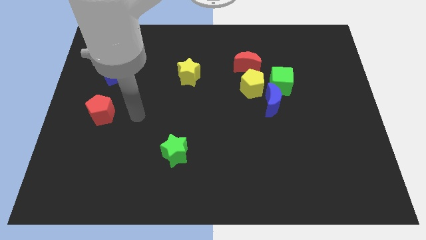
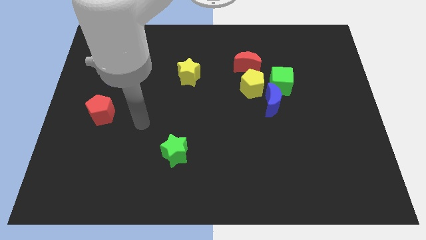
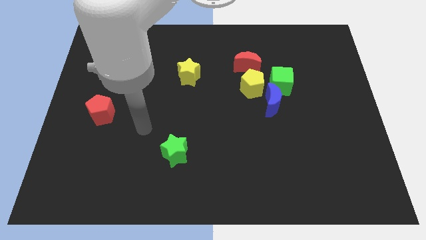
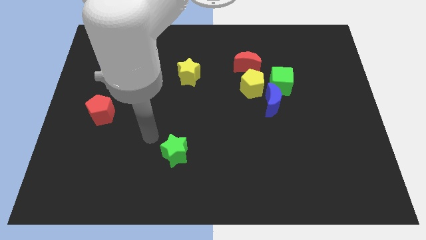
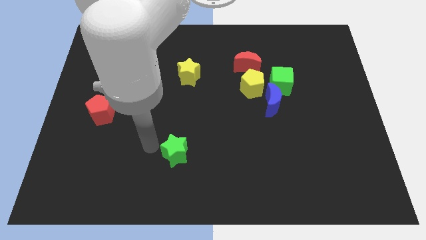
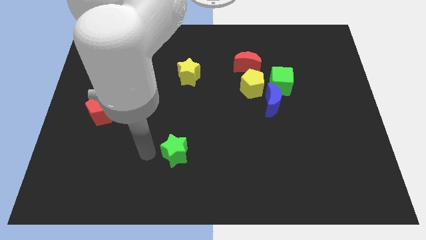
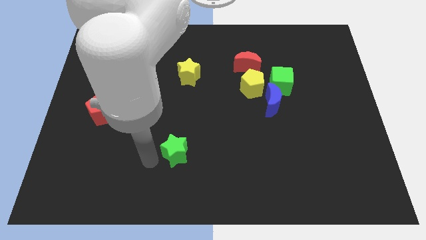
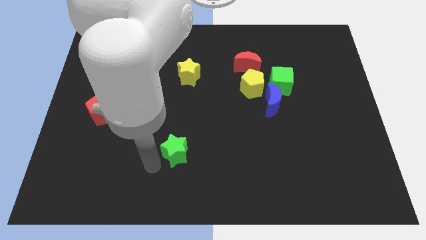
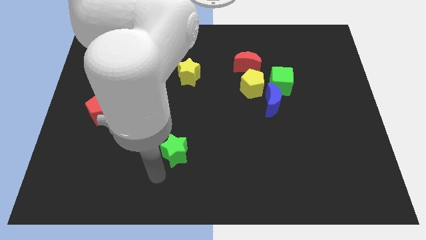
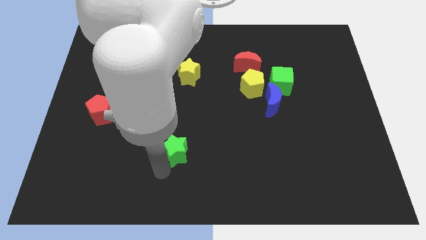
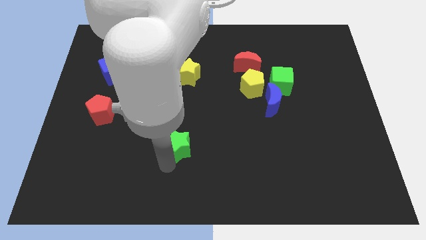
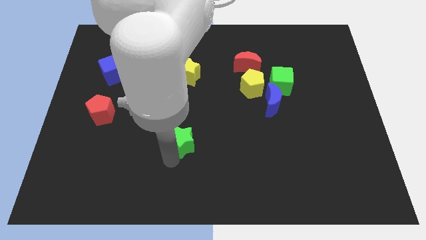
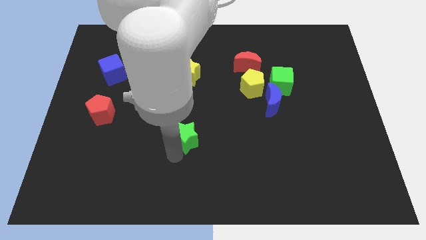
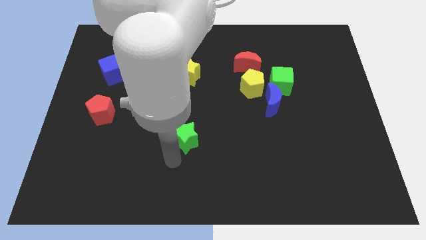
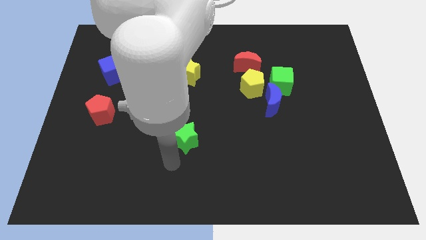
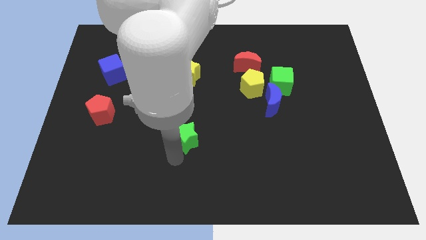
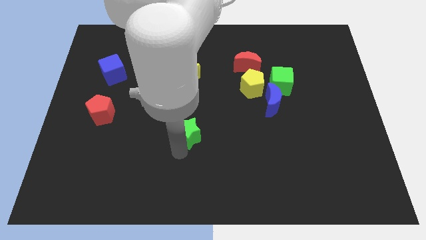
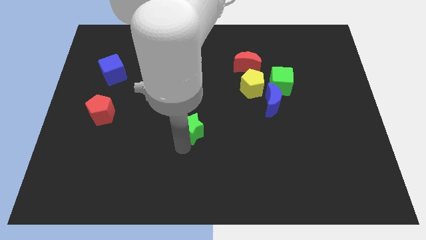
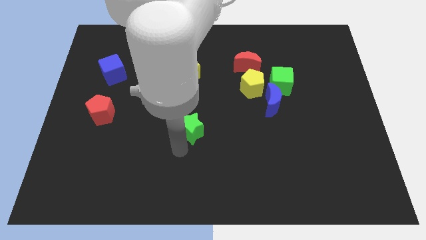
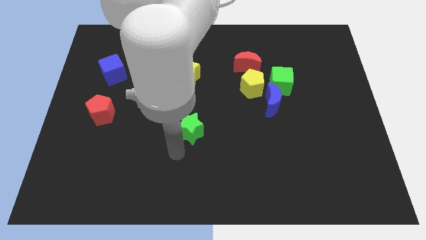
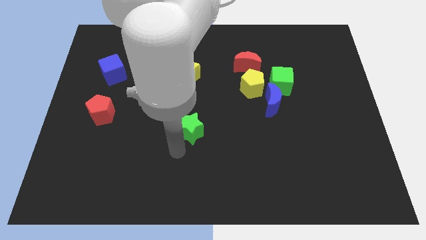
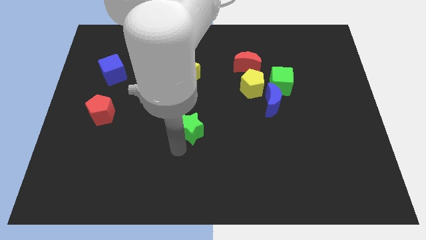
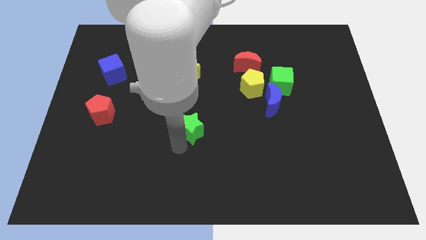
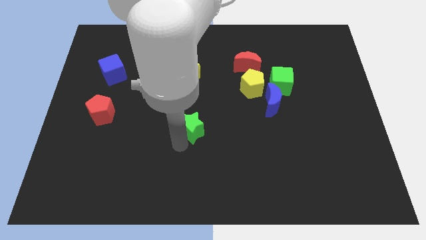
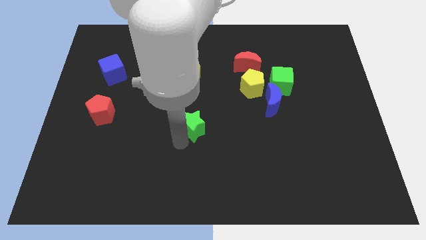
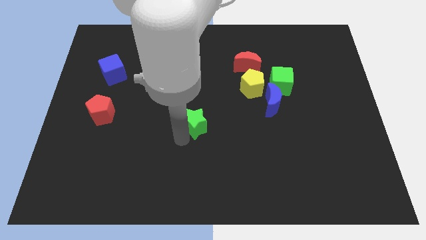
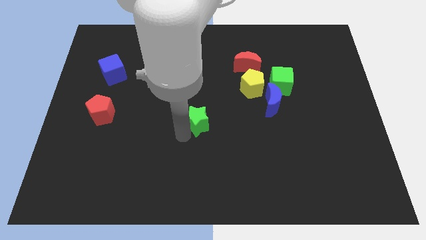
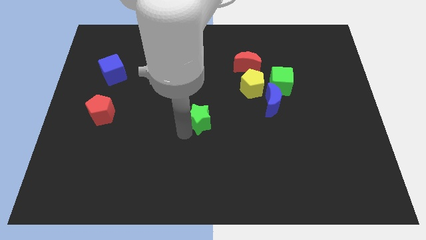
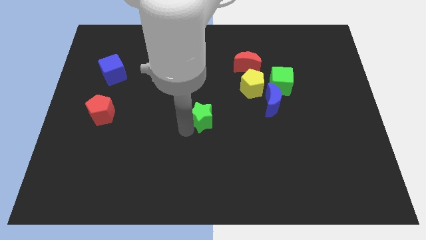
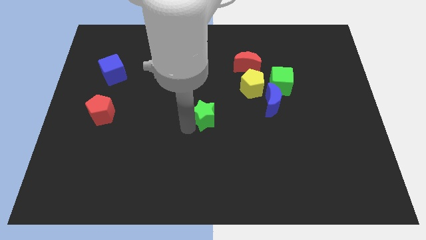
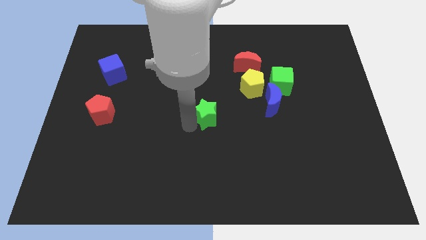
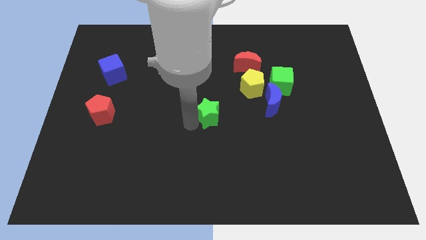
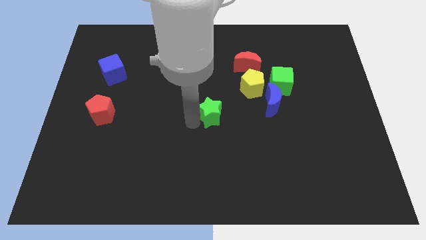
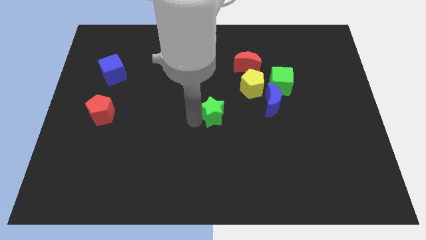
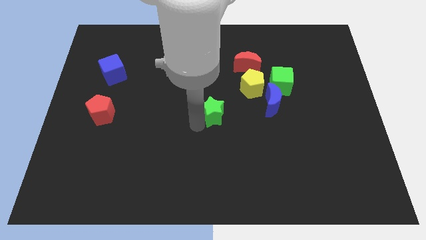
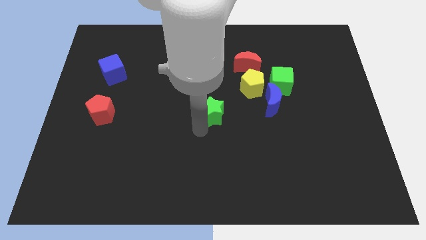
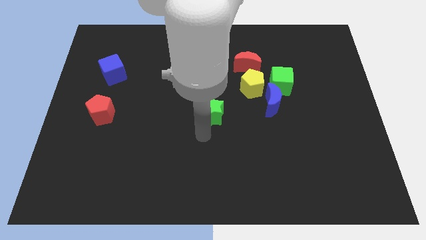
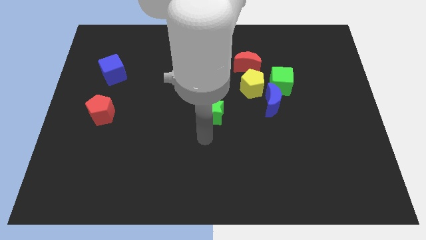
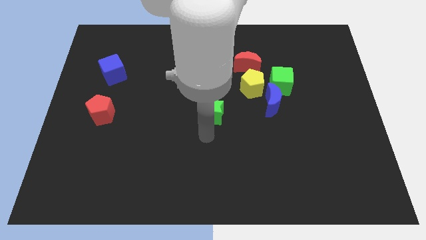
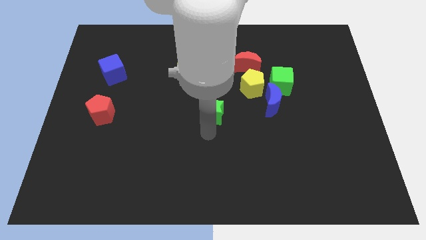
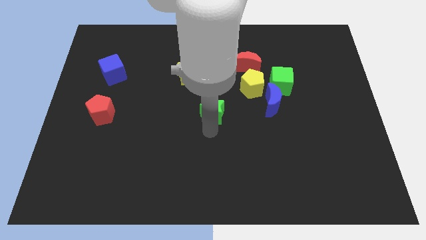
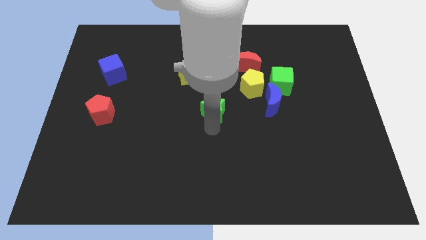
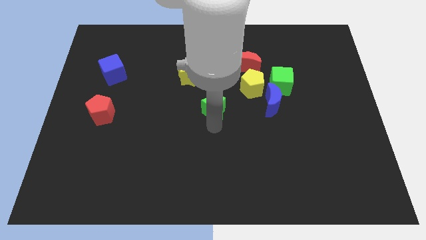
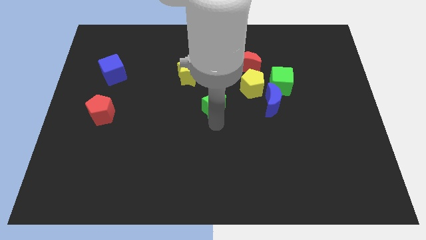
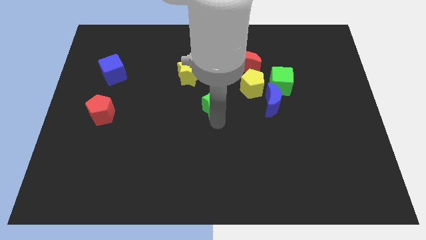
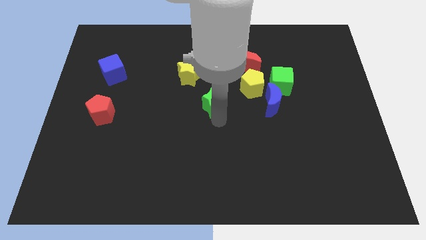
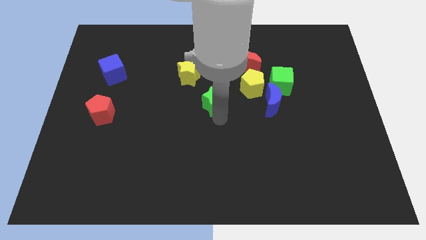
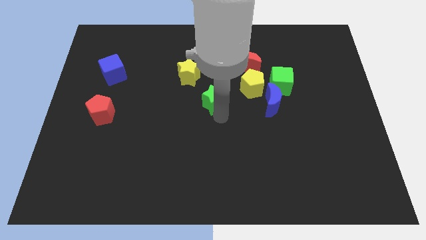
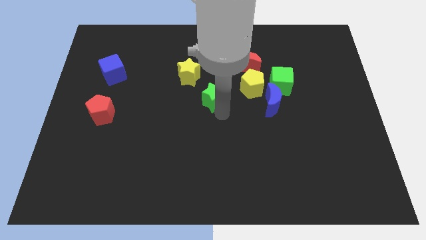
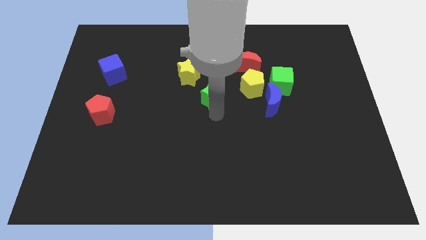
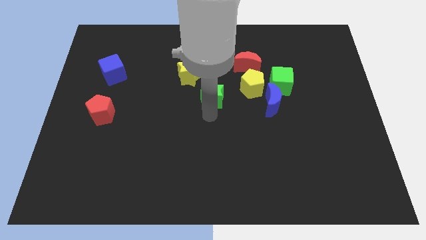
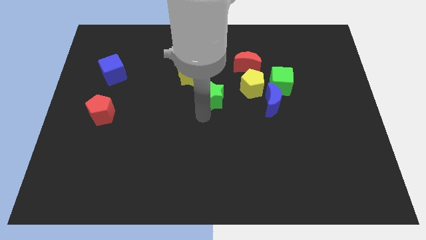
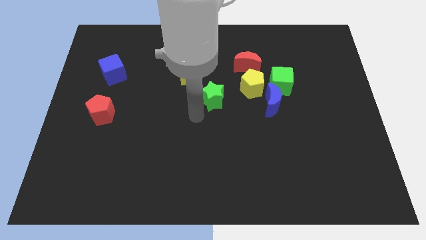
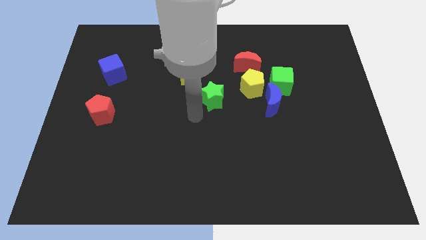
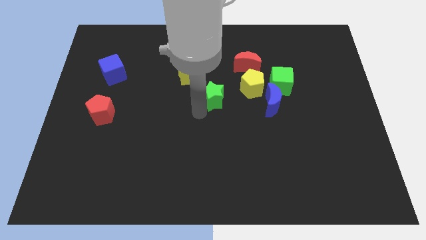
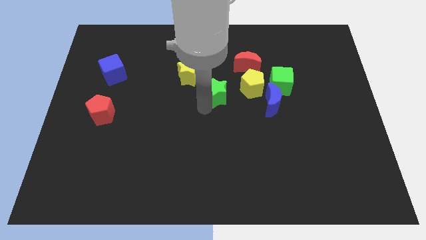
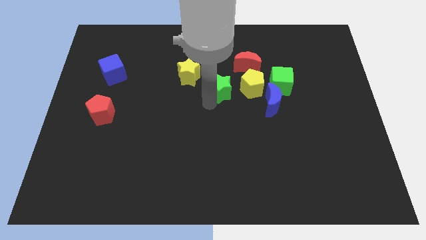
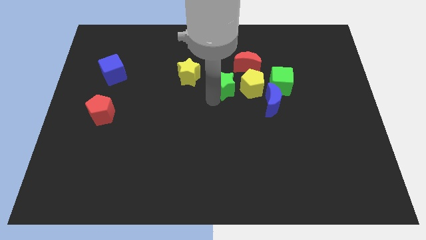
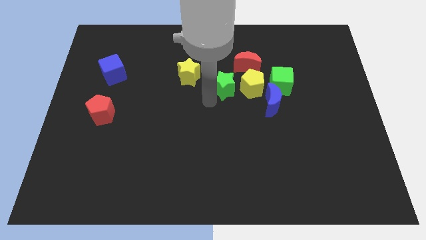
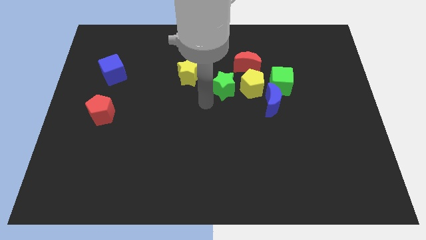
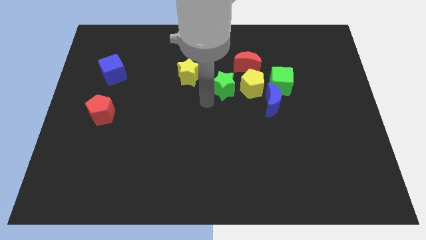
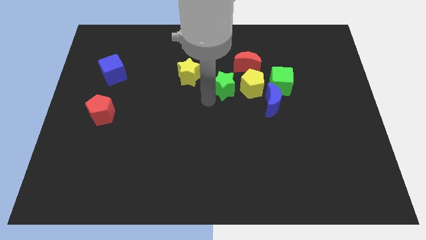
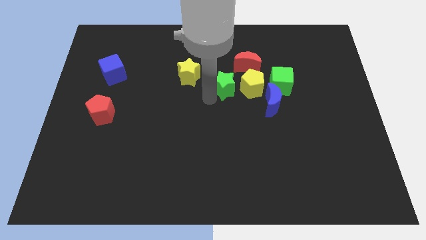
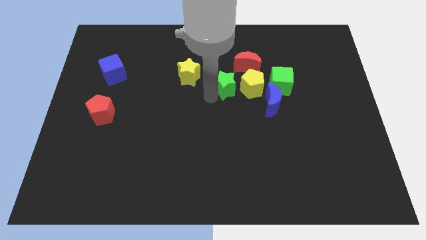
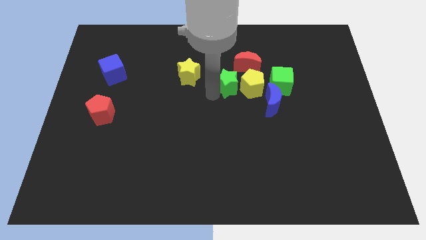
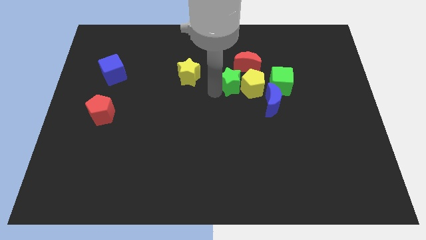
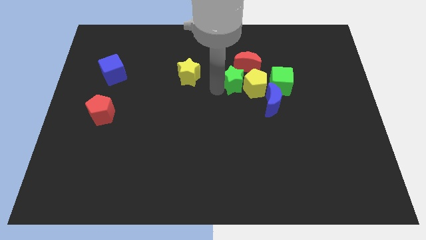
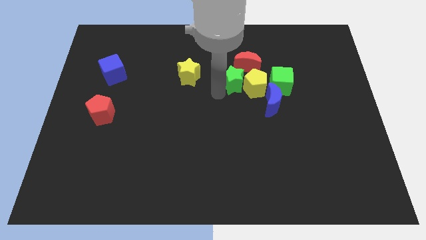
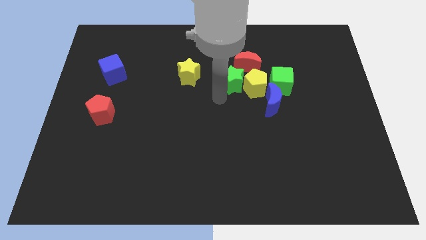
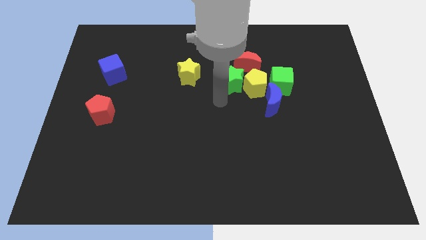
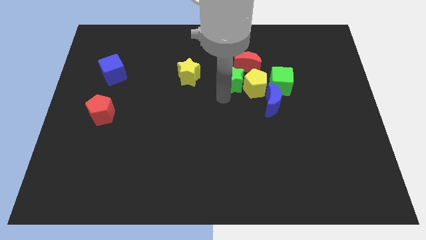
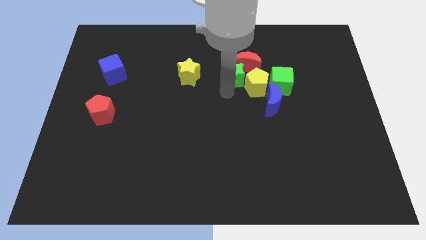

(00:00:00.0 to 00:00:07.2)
put the green star next to the red moon
